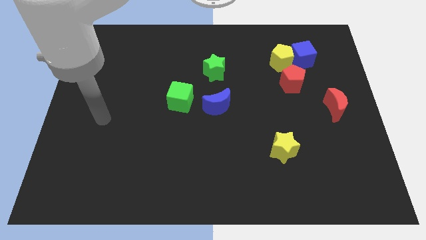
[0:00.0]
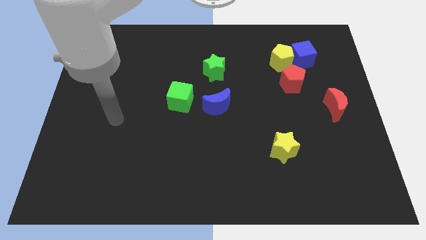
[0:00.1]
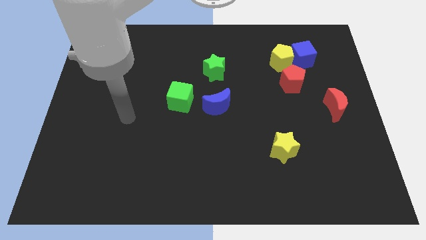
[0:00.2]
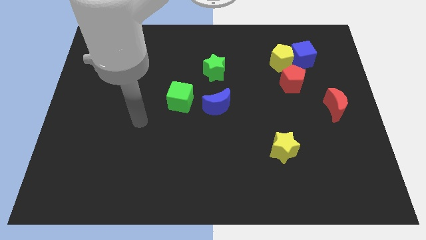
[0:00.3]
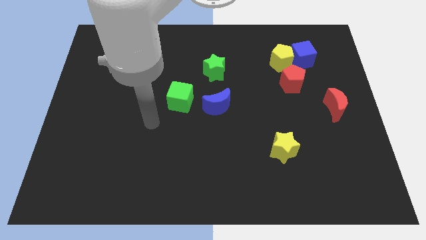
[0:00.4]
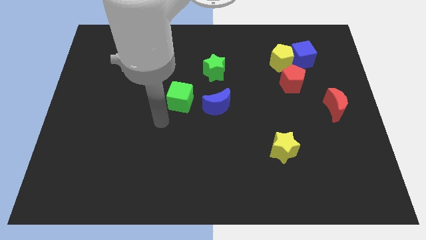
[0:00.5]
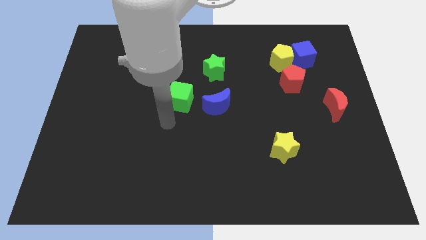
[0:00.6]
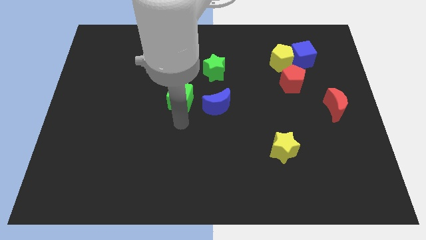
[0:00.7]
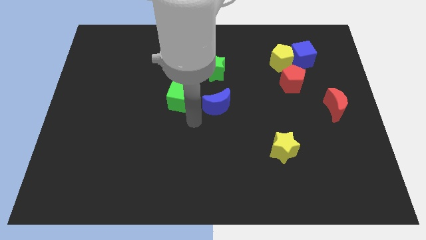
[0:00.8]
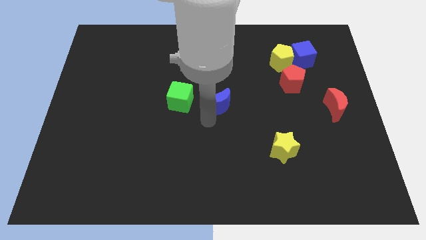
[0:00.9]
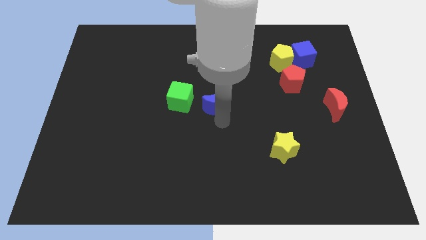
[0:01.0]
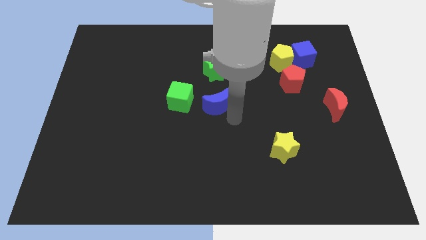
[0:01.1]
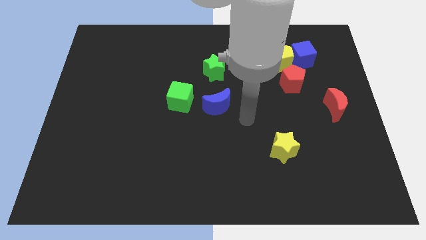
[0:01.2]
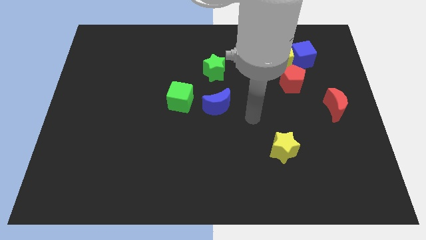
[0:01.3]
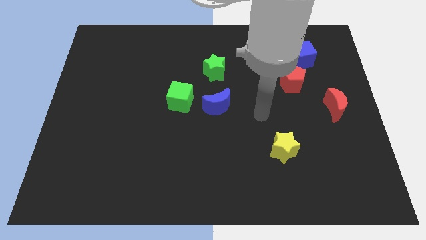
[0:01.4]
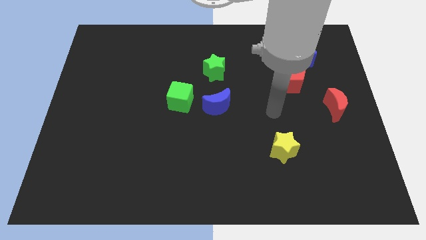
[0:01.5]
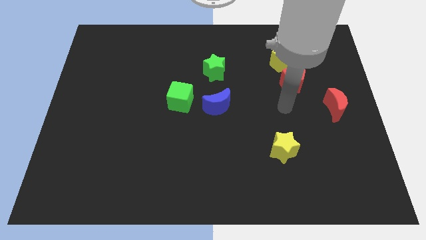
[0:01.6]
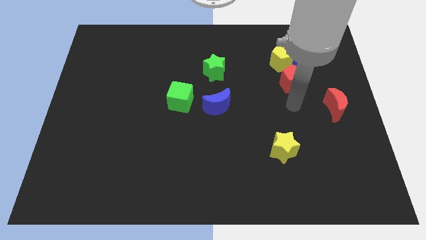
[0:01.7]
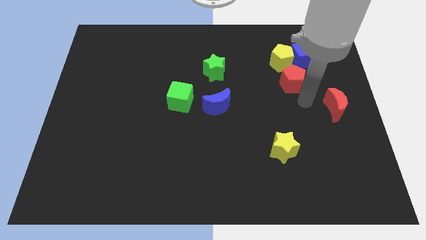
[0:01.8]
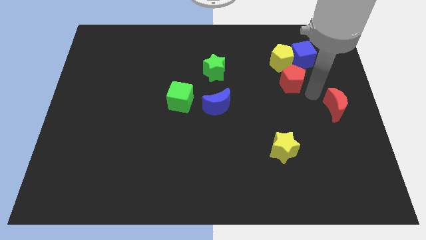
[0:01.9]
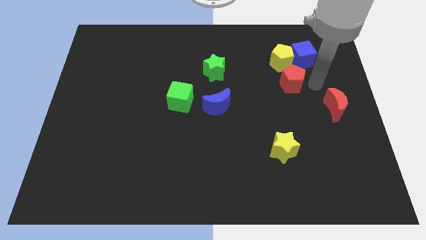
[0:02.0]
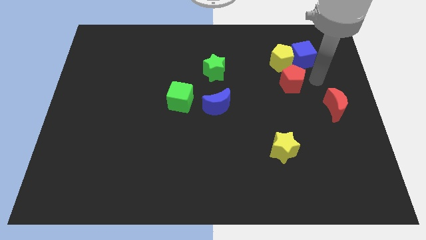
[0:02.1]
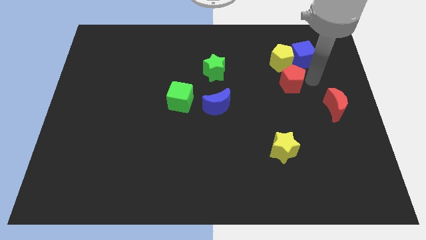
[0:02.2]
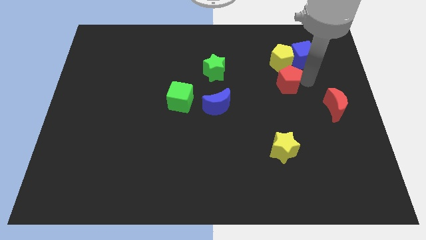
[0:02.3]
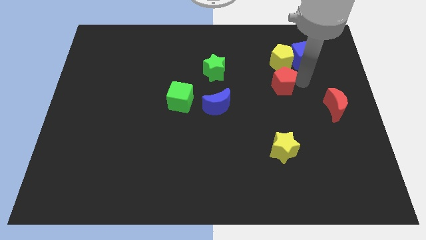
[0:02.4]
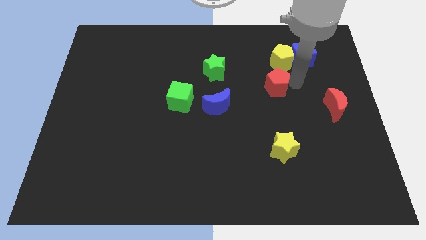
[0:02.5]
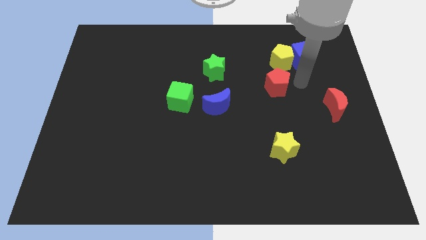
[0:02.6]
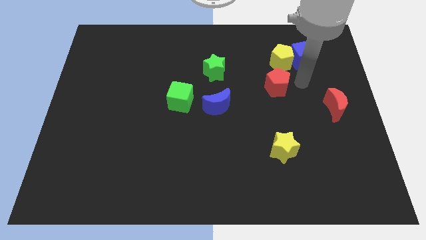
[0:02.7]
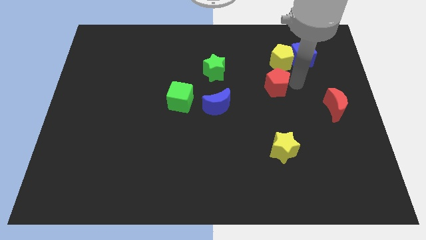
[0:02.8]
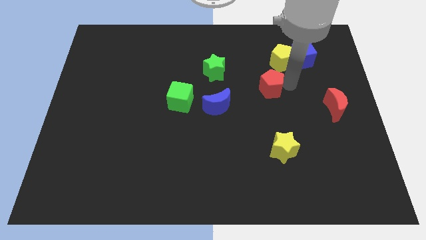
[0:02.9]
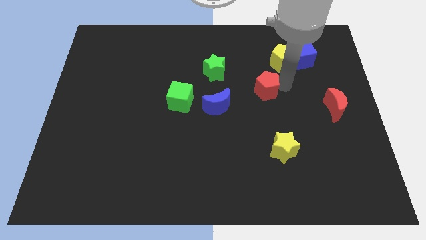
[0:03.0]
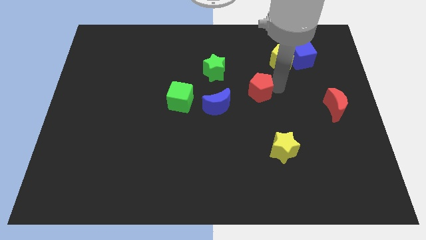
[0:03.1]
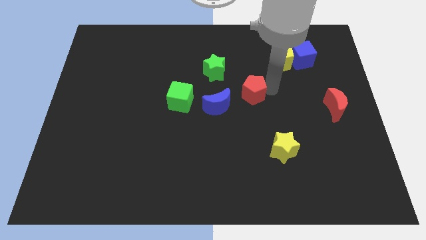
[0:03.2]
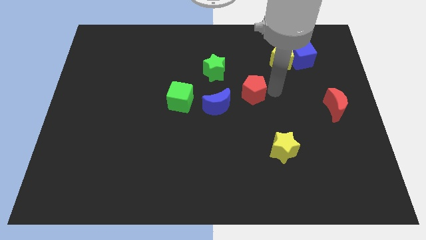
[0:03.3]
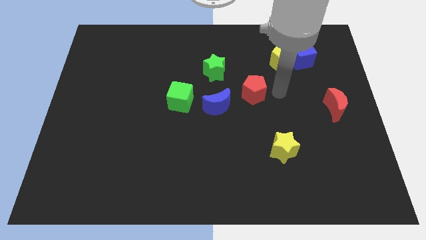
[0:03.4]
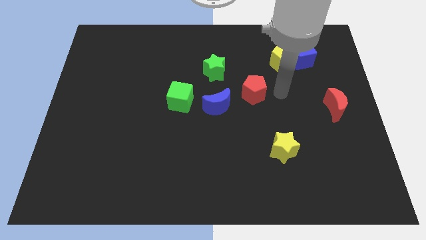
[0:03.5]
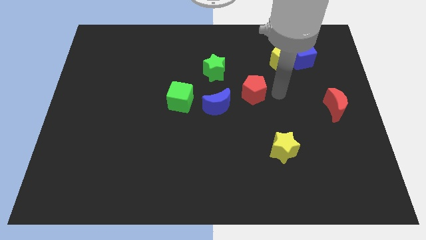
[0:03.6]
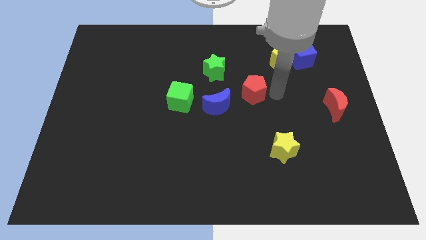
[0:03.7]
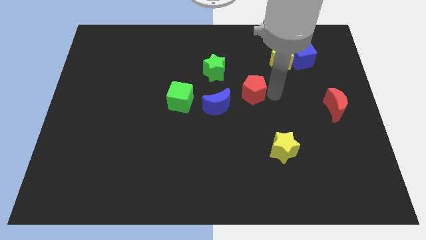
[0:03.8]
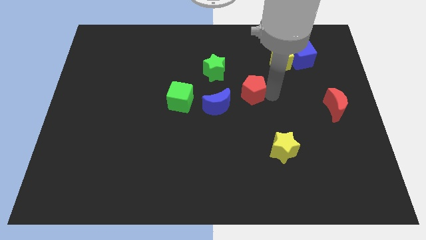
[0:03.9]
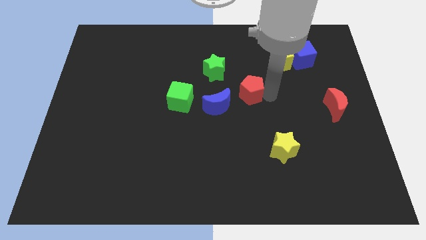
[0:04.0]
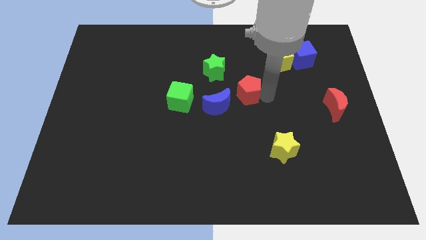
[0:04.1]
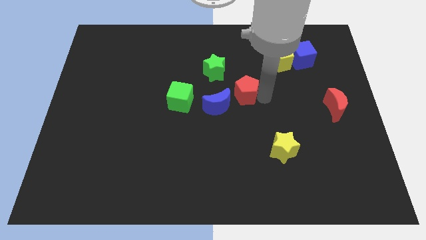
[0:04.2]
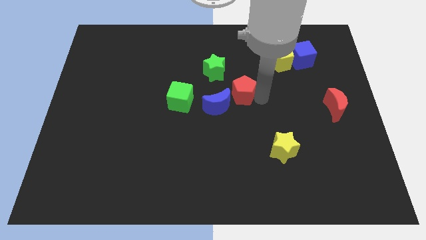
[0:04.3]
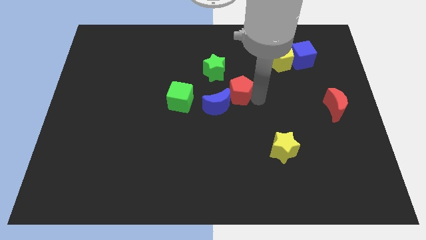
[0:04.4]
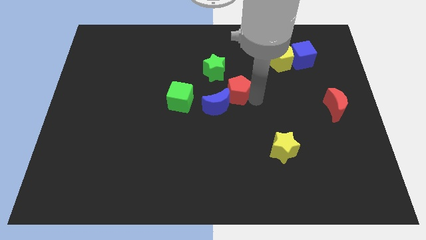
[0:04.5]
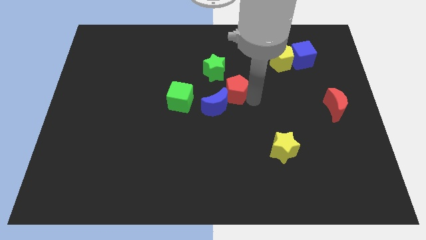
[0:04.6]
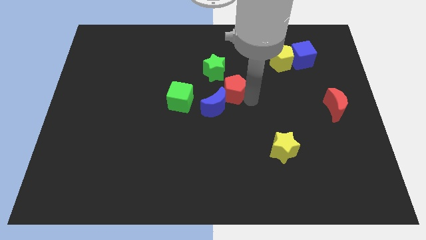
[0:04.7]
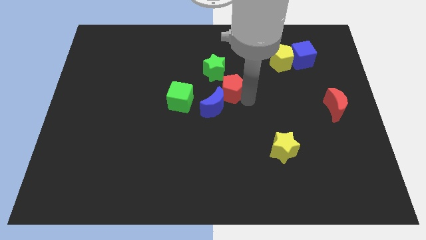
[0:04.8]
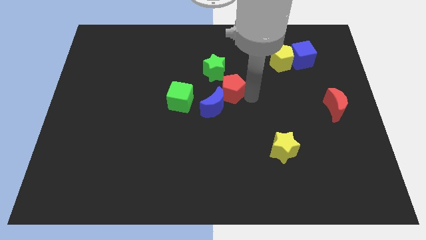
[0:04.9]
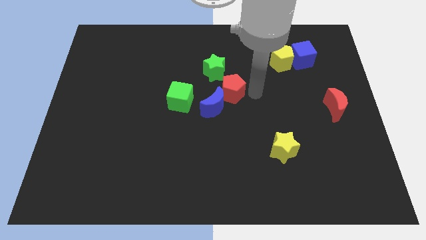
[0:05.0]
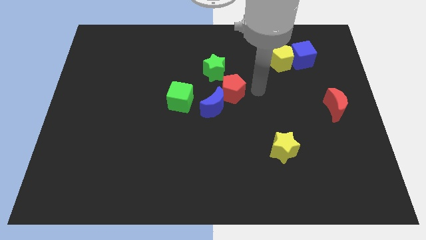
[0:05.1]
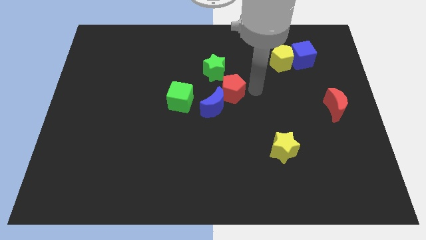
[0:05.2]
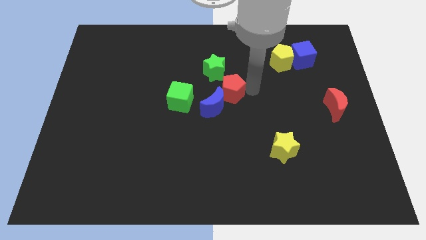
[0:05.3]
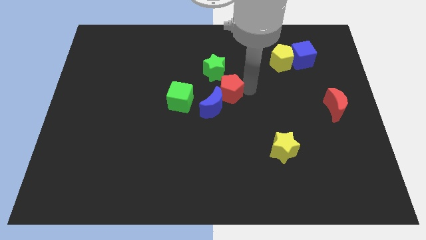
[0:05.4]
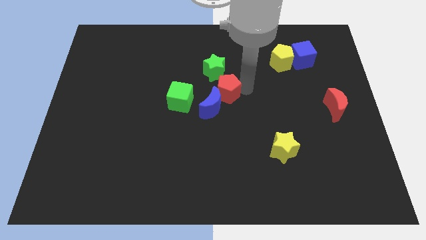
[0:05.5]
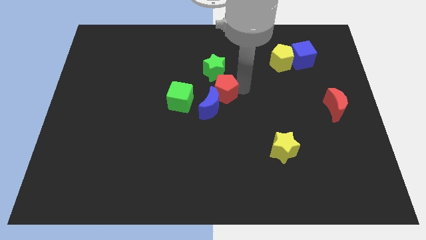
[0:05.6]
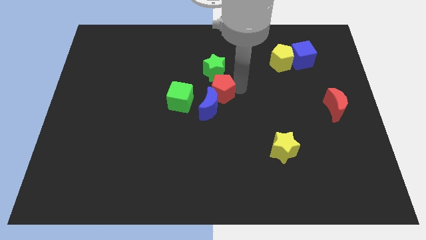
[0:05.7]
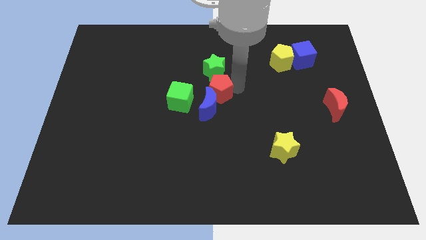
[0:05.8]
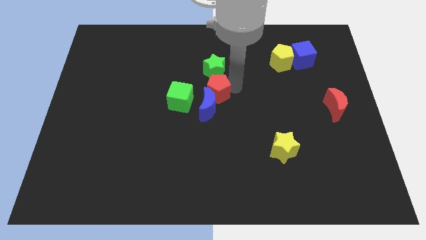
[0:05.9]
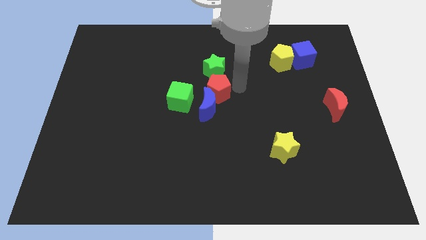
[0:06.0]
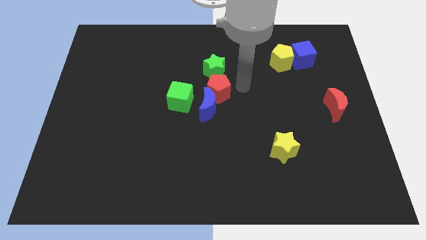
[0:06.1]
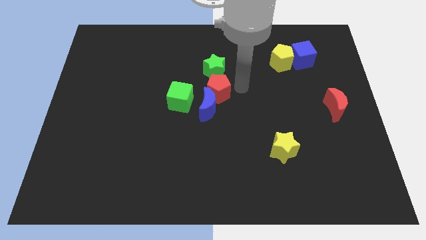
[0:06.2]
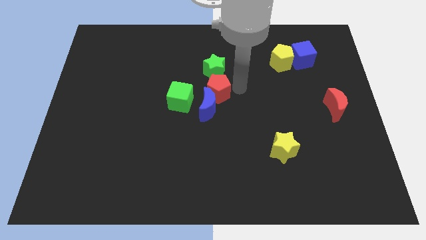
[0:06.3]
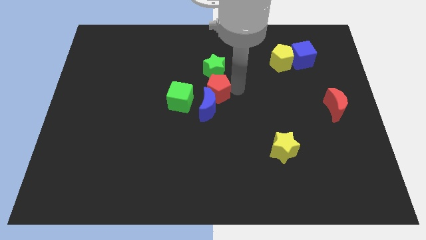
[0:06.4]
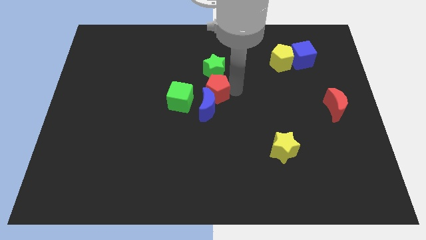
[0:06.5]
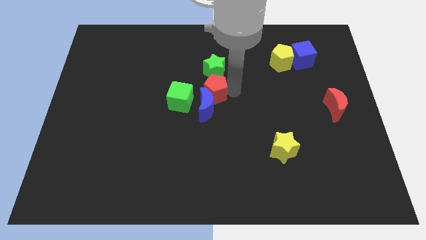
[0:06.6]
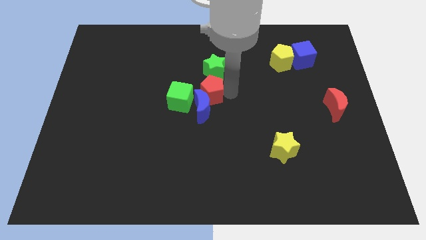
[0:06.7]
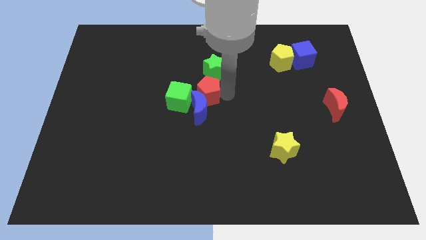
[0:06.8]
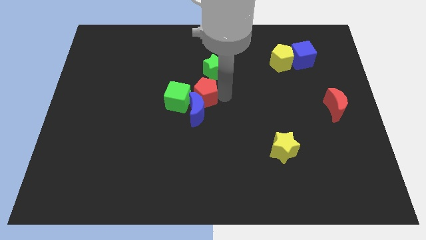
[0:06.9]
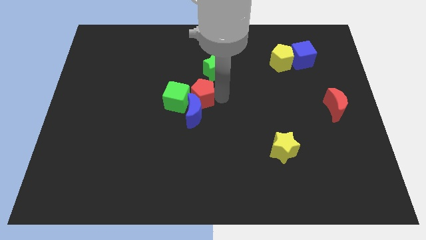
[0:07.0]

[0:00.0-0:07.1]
move the red pentagon to the green cube

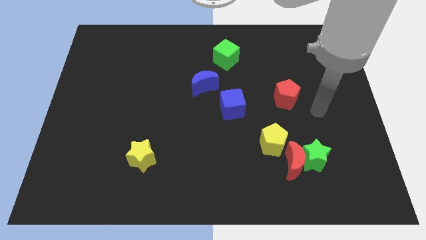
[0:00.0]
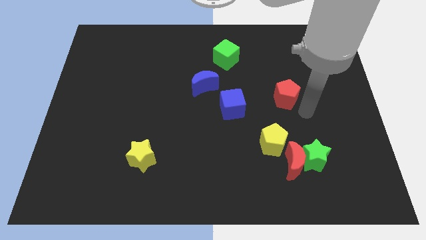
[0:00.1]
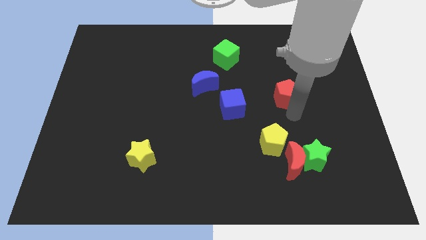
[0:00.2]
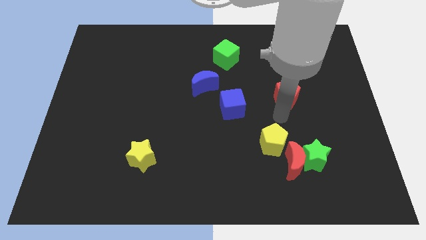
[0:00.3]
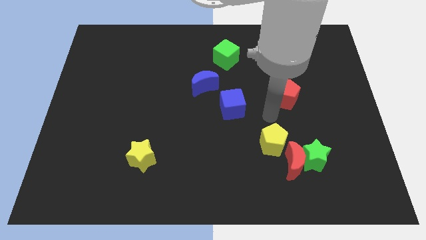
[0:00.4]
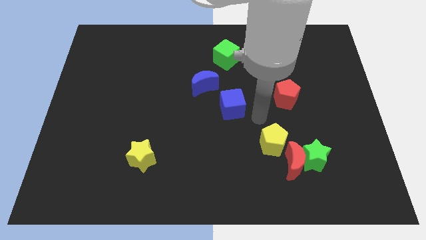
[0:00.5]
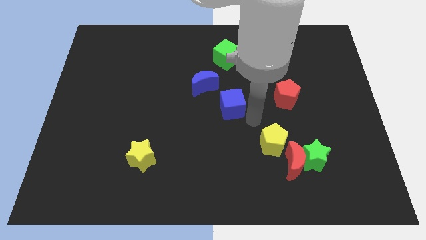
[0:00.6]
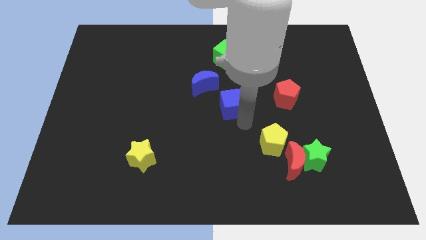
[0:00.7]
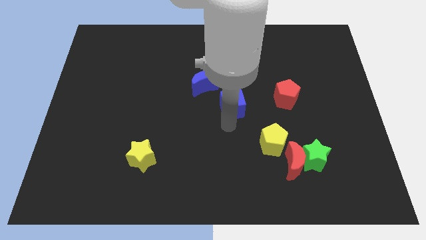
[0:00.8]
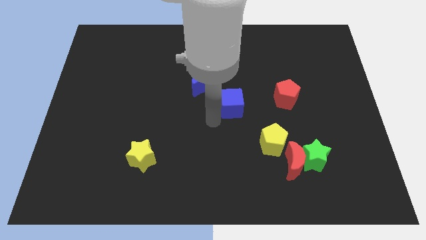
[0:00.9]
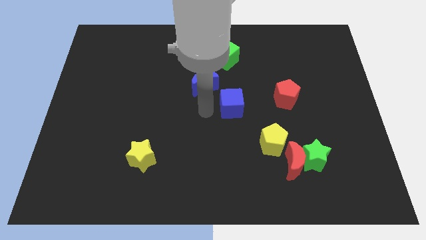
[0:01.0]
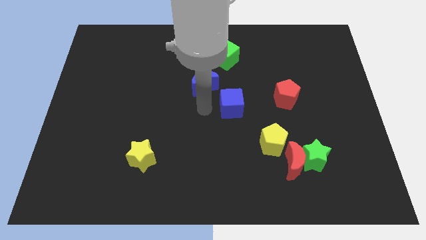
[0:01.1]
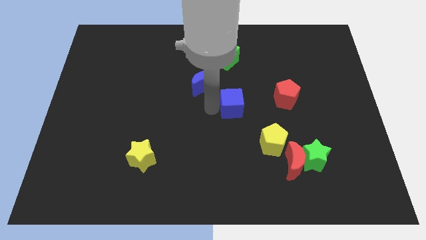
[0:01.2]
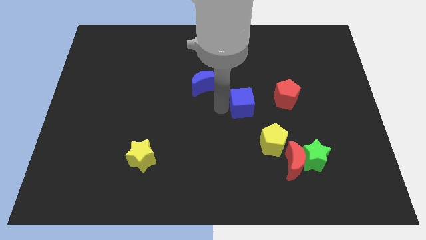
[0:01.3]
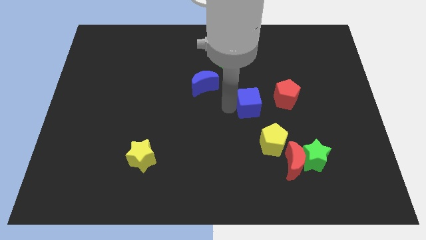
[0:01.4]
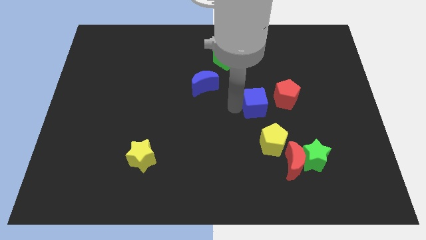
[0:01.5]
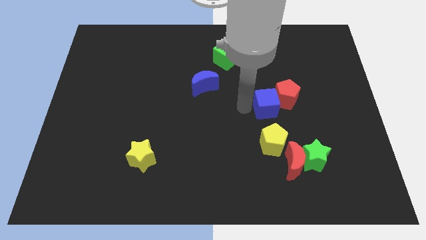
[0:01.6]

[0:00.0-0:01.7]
put the blue cube next to the red pentagon
